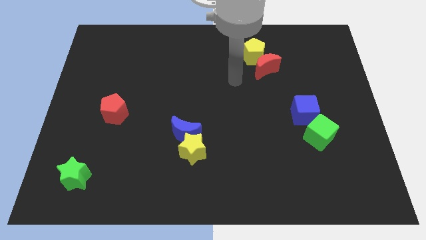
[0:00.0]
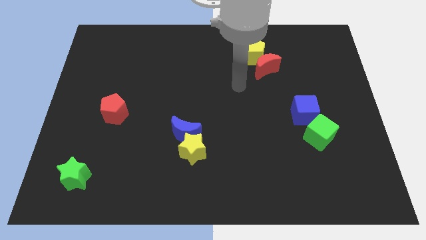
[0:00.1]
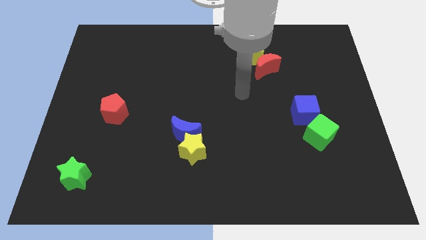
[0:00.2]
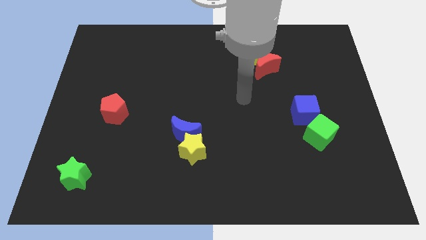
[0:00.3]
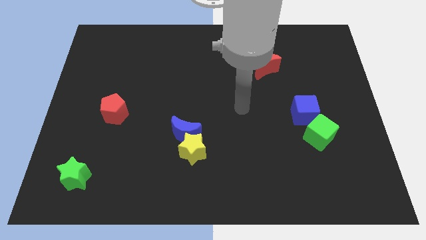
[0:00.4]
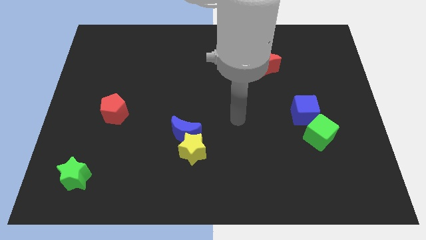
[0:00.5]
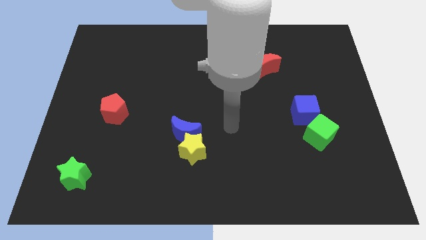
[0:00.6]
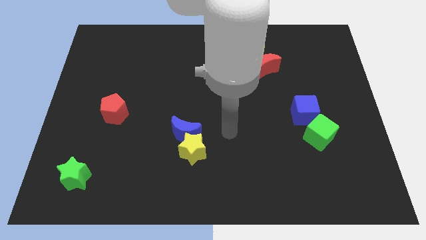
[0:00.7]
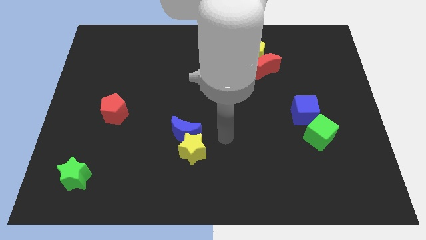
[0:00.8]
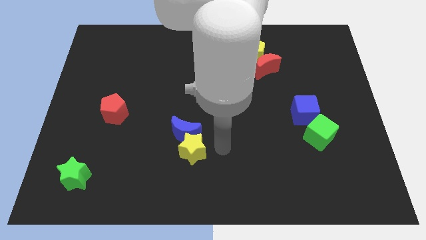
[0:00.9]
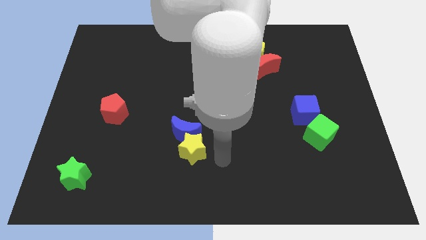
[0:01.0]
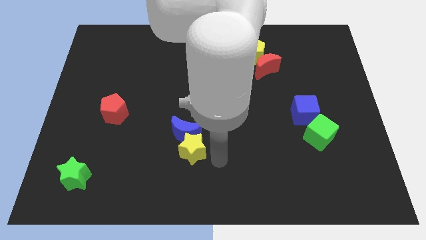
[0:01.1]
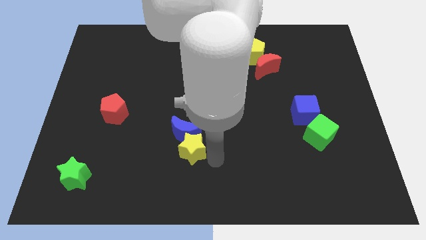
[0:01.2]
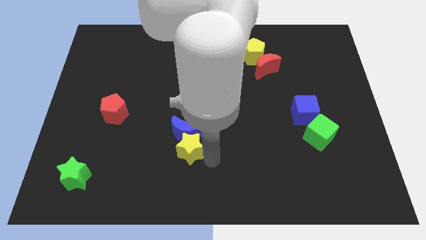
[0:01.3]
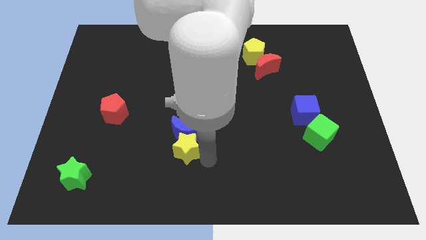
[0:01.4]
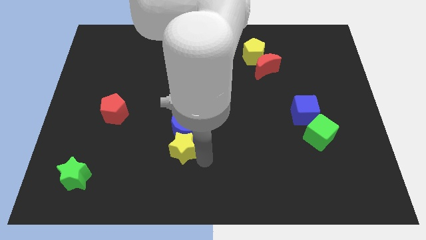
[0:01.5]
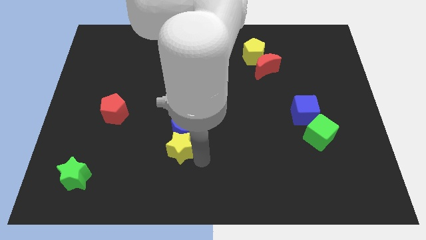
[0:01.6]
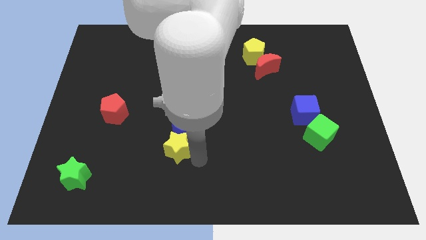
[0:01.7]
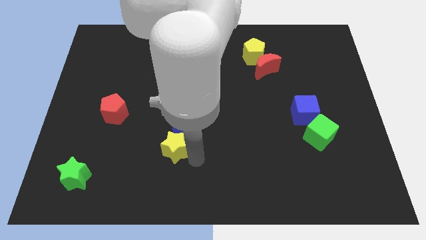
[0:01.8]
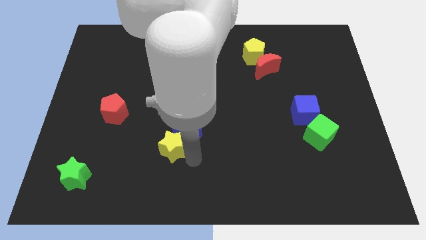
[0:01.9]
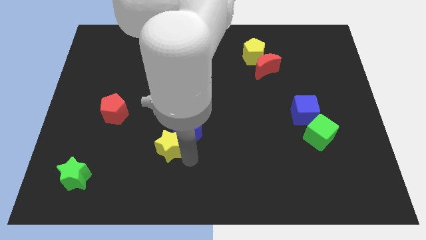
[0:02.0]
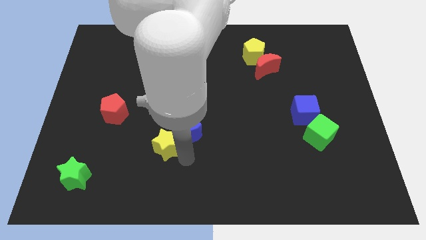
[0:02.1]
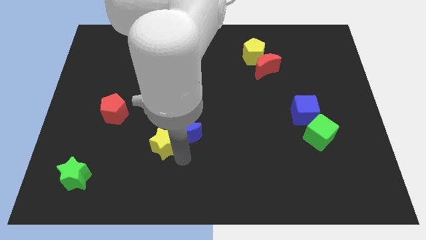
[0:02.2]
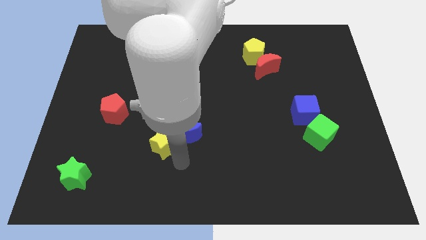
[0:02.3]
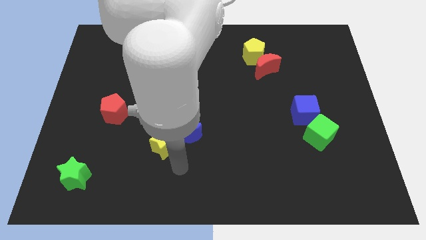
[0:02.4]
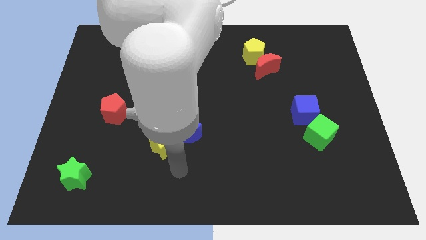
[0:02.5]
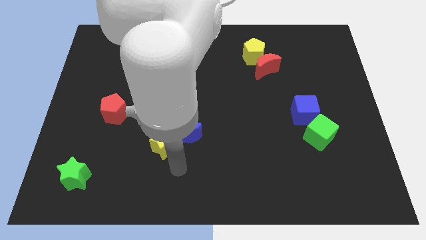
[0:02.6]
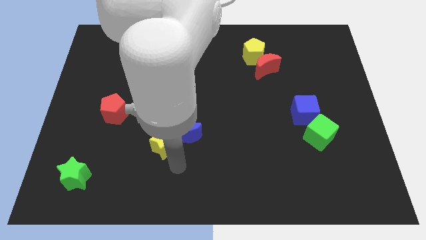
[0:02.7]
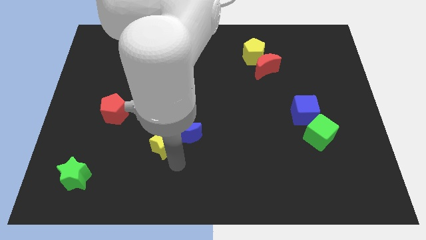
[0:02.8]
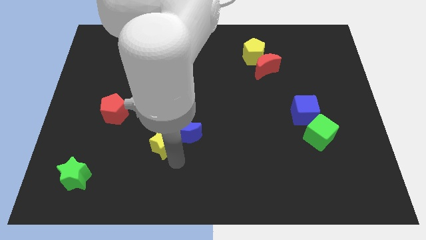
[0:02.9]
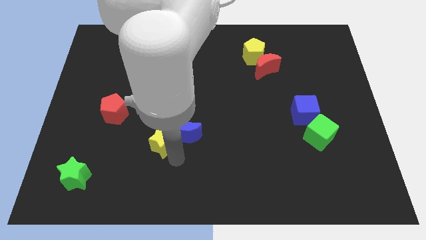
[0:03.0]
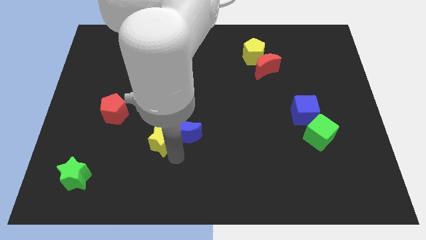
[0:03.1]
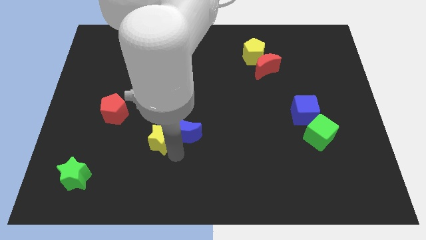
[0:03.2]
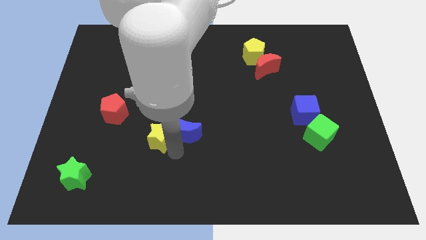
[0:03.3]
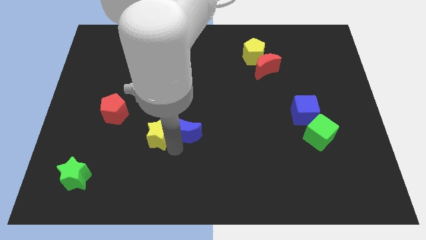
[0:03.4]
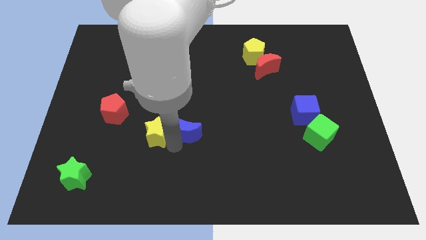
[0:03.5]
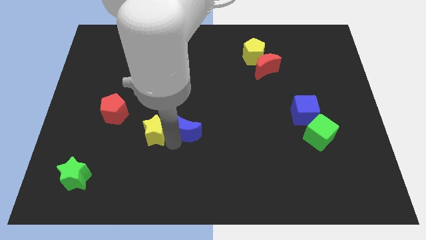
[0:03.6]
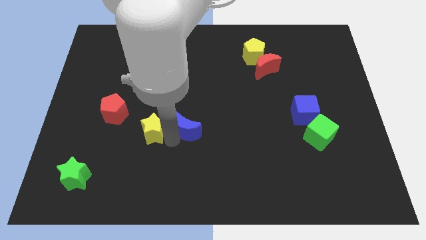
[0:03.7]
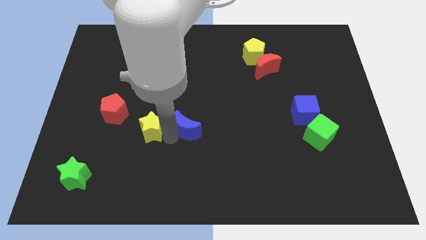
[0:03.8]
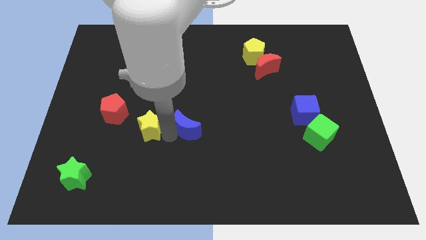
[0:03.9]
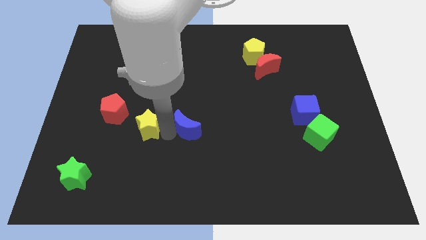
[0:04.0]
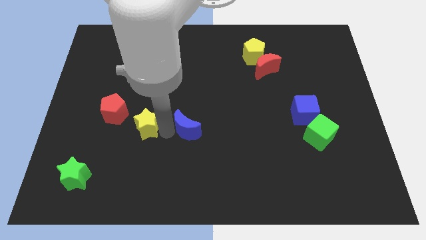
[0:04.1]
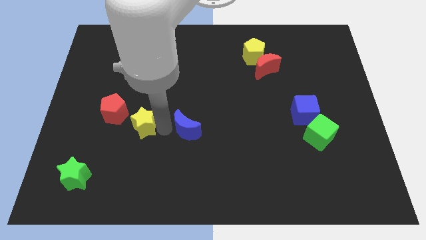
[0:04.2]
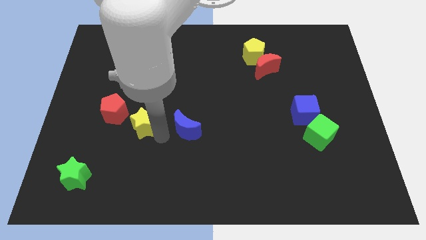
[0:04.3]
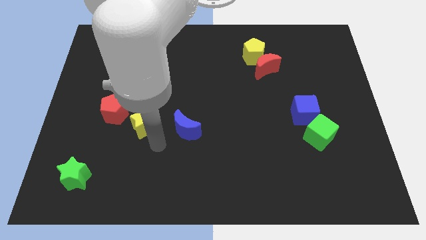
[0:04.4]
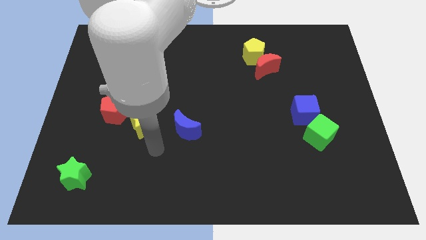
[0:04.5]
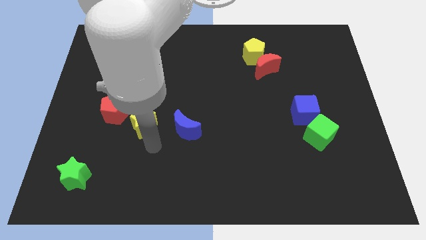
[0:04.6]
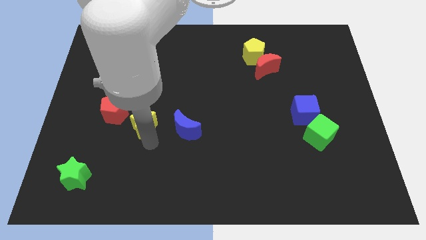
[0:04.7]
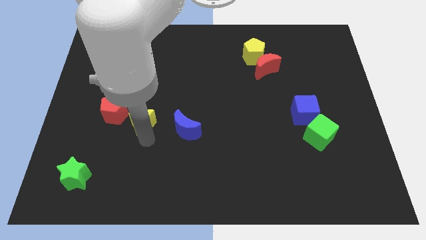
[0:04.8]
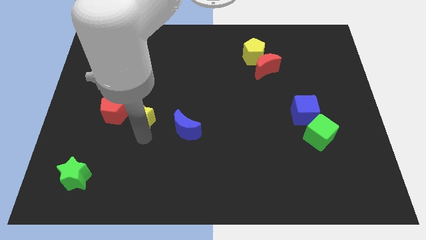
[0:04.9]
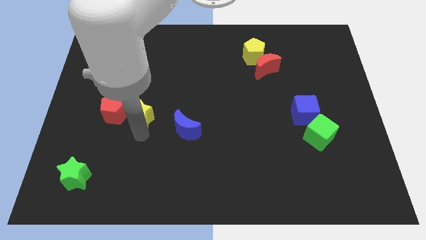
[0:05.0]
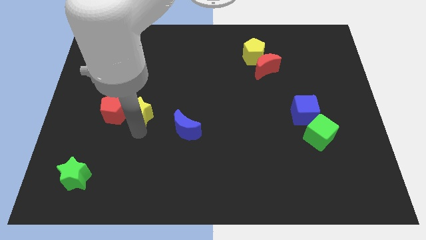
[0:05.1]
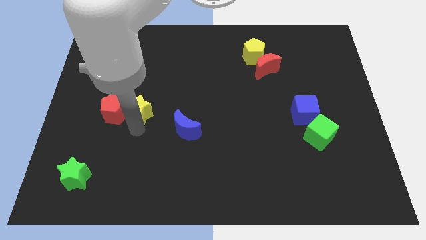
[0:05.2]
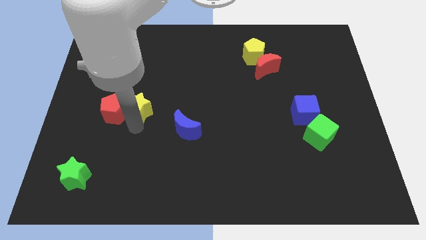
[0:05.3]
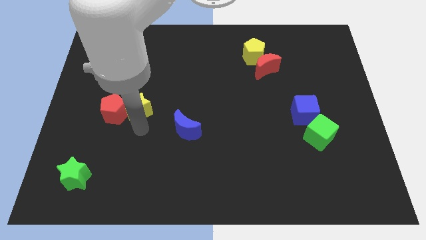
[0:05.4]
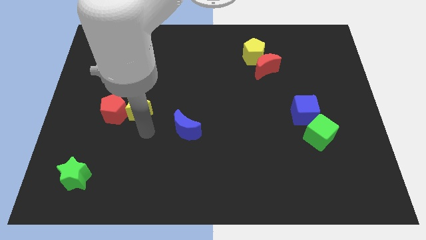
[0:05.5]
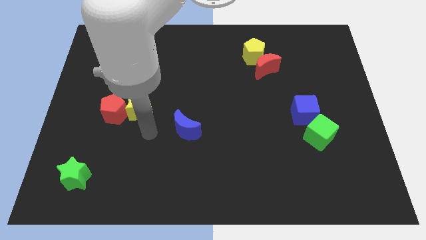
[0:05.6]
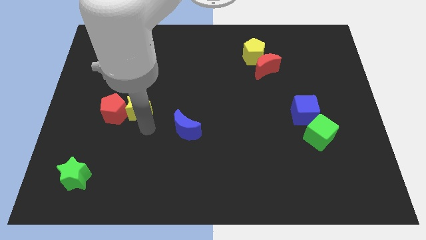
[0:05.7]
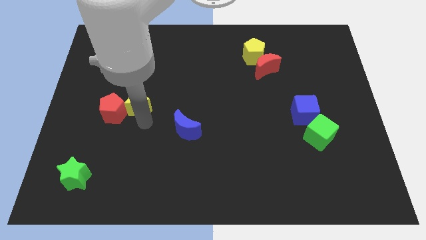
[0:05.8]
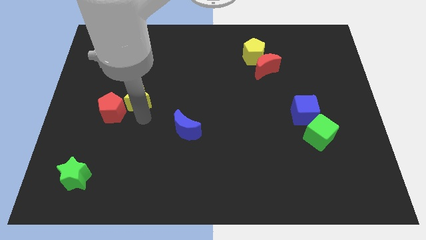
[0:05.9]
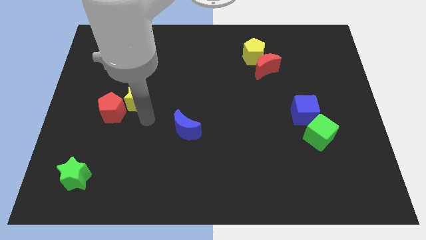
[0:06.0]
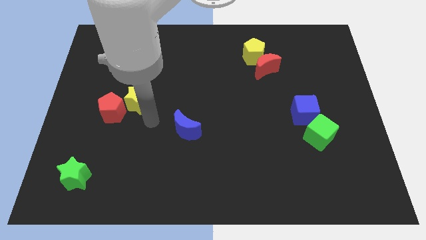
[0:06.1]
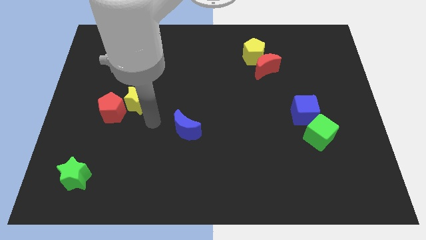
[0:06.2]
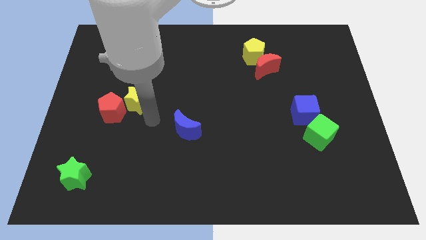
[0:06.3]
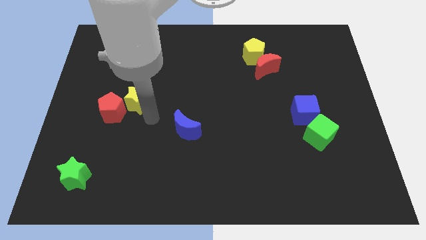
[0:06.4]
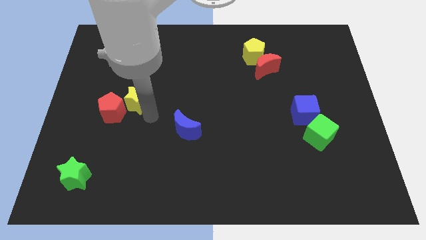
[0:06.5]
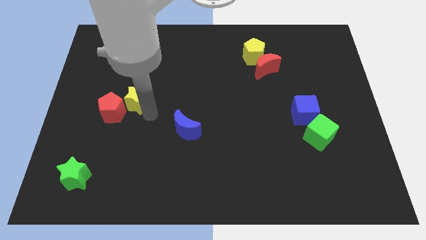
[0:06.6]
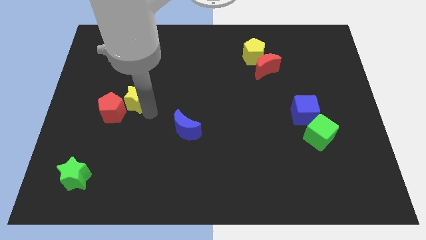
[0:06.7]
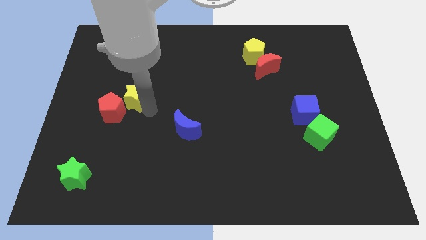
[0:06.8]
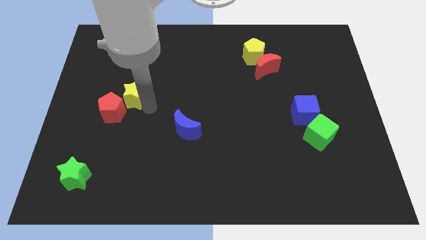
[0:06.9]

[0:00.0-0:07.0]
move the yellow star to the top of the red pentagon

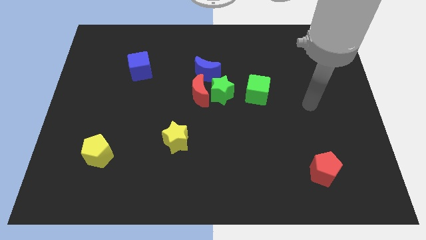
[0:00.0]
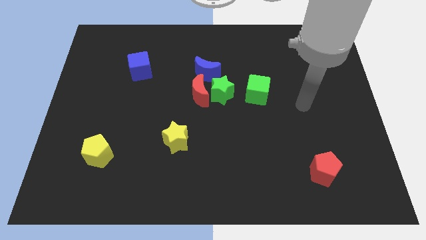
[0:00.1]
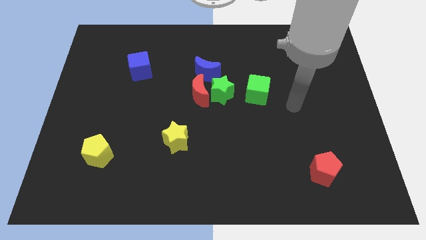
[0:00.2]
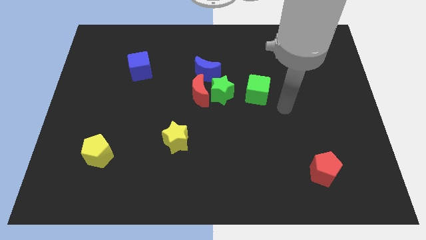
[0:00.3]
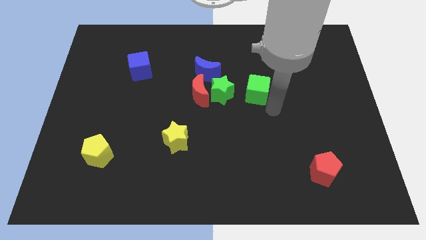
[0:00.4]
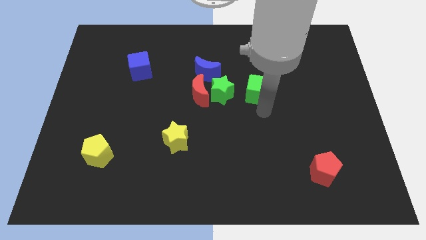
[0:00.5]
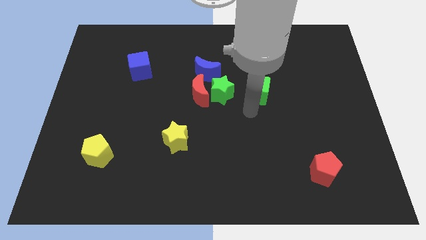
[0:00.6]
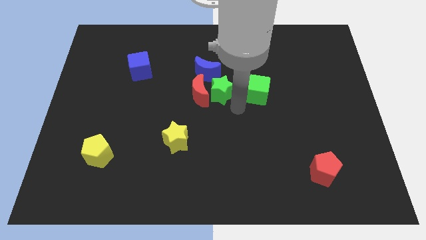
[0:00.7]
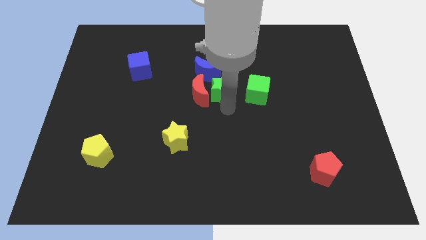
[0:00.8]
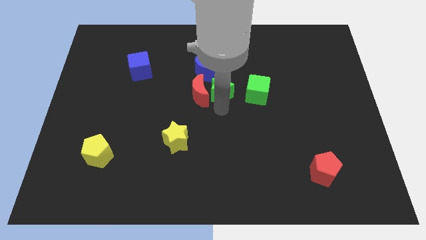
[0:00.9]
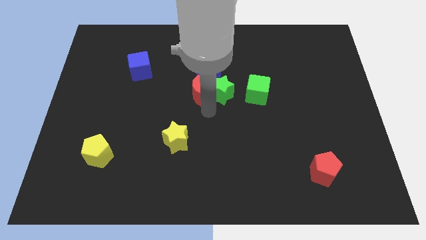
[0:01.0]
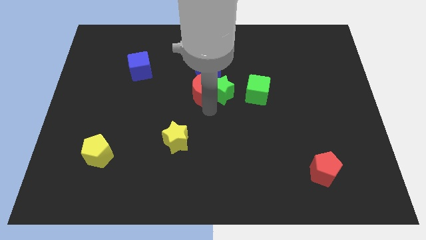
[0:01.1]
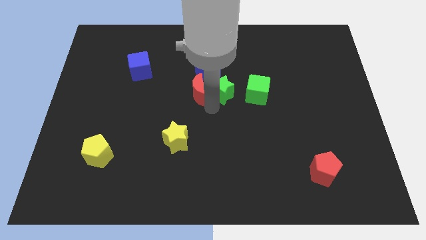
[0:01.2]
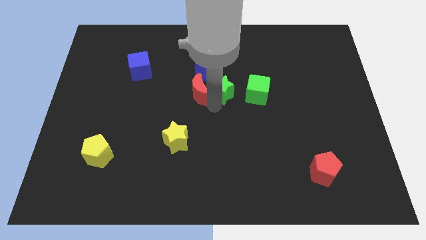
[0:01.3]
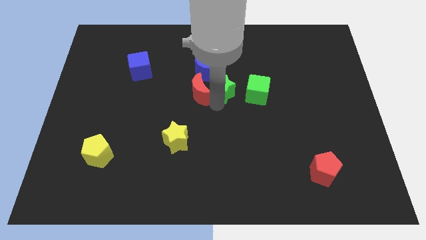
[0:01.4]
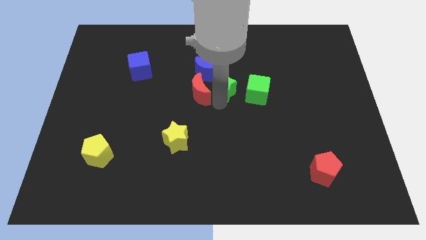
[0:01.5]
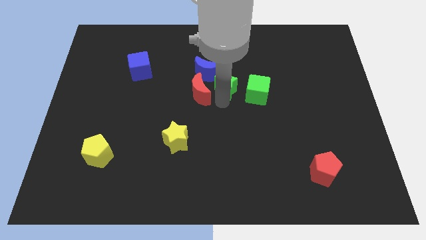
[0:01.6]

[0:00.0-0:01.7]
push the green star to the top left side of the green cube
